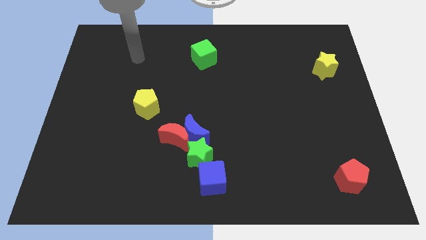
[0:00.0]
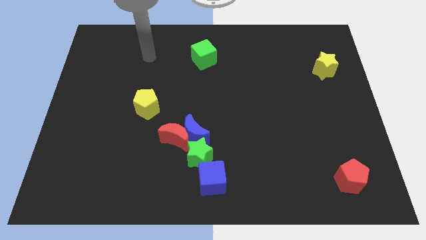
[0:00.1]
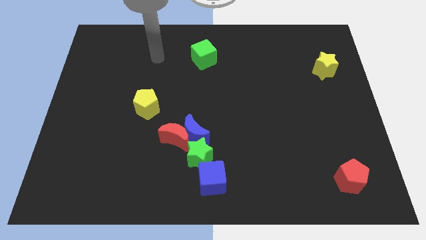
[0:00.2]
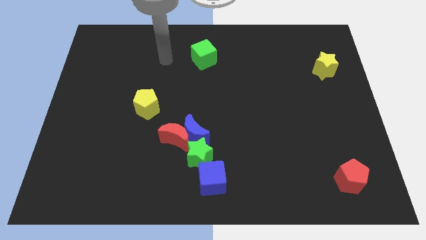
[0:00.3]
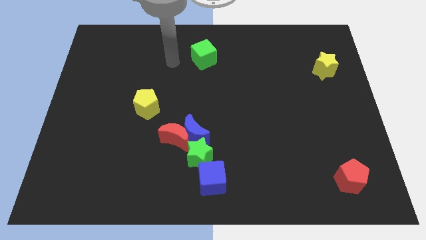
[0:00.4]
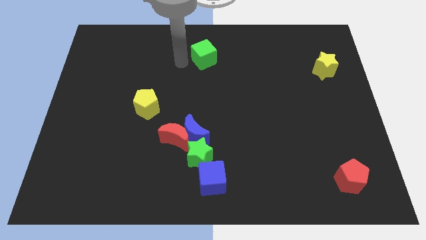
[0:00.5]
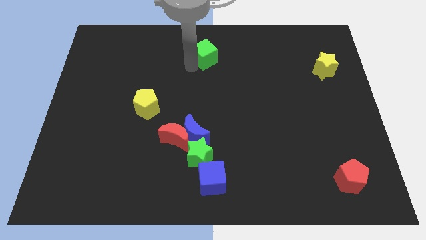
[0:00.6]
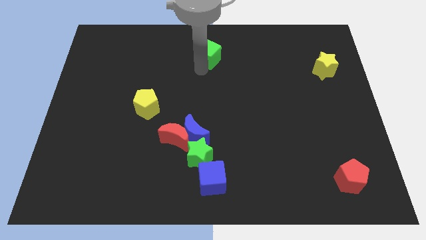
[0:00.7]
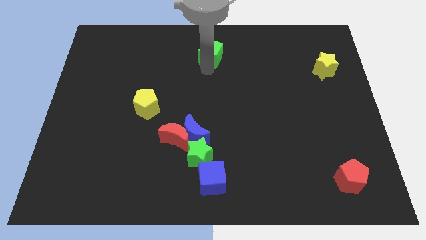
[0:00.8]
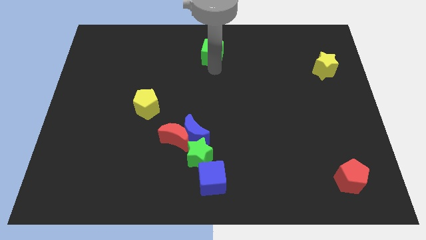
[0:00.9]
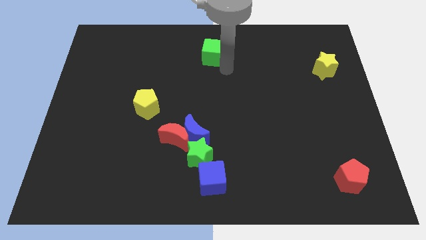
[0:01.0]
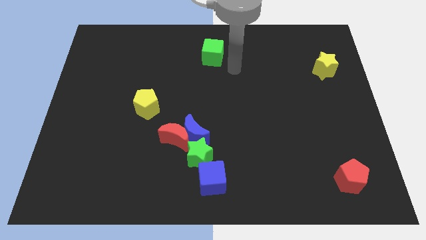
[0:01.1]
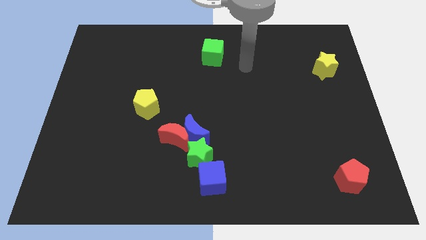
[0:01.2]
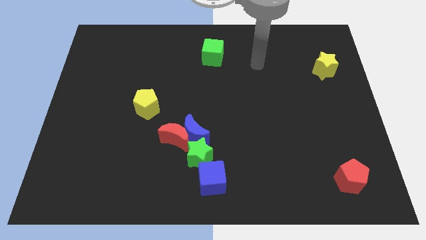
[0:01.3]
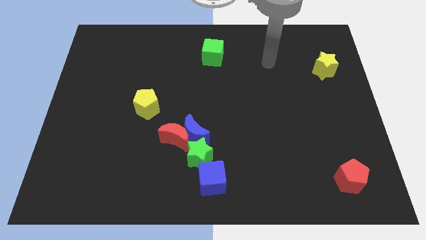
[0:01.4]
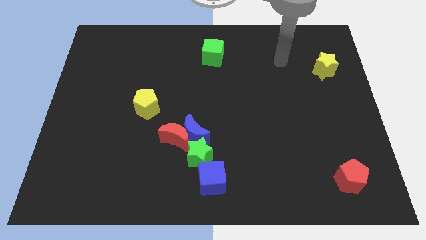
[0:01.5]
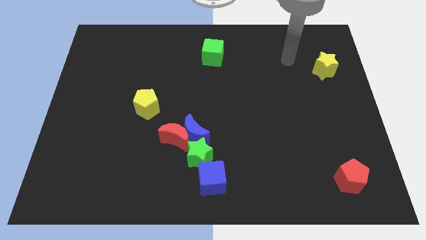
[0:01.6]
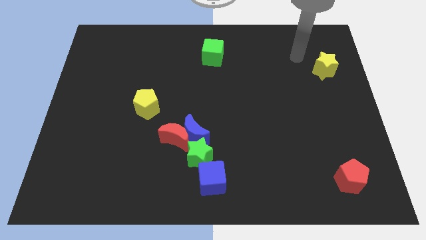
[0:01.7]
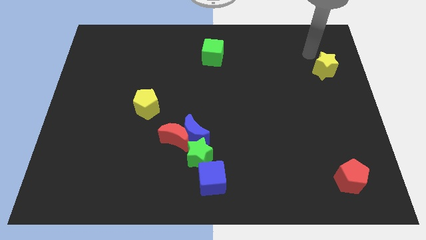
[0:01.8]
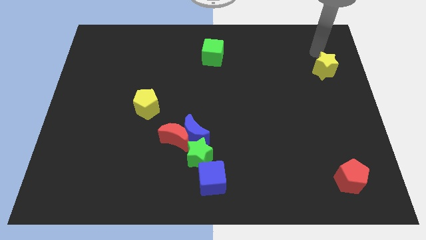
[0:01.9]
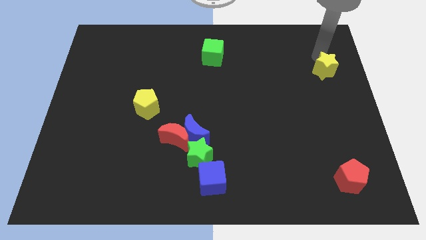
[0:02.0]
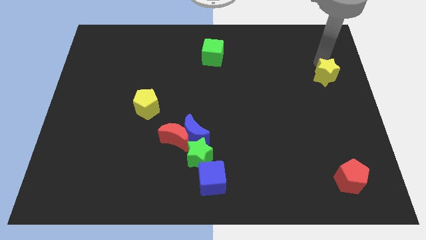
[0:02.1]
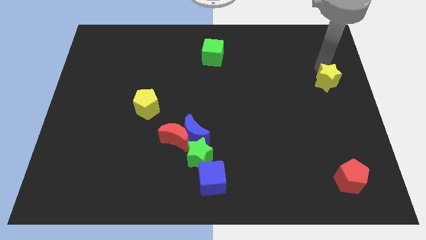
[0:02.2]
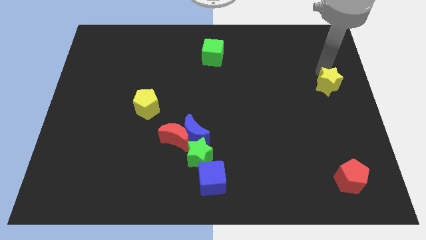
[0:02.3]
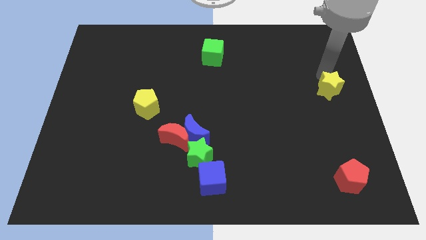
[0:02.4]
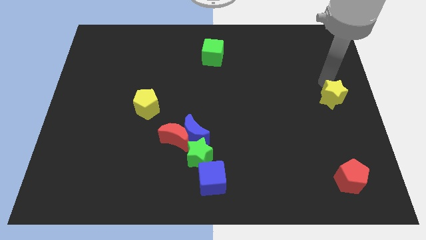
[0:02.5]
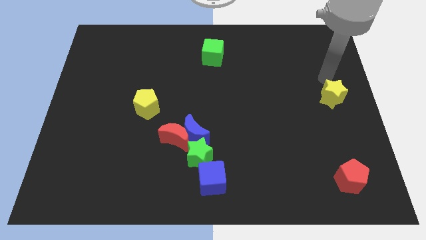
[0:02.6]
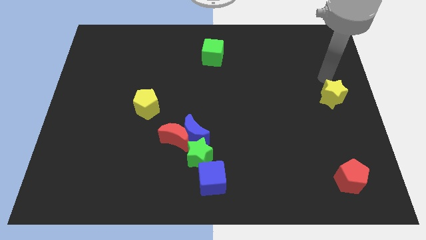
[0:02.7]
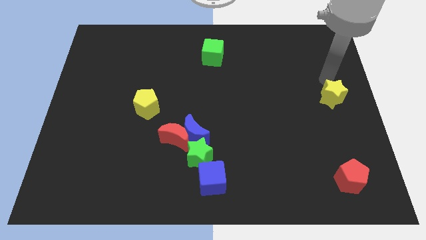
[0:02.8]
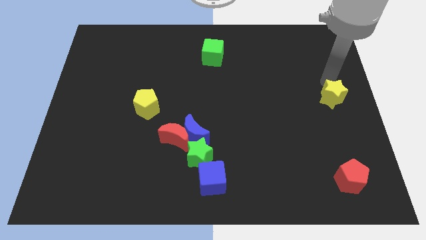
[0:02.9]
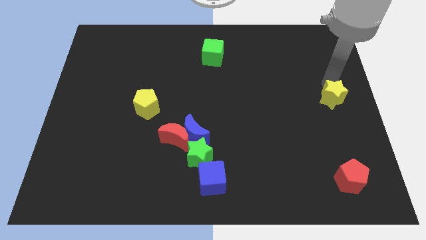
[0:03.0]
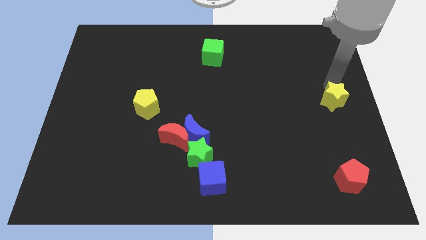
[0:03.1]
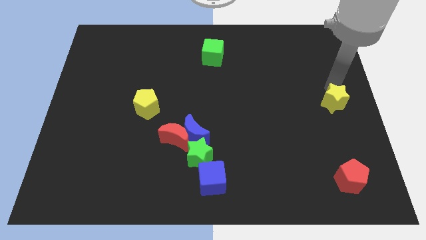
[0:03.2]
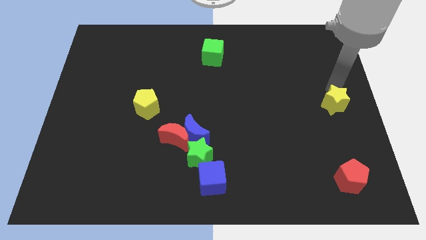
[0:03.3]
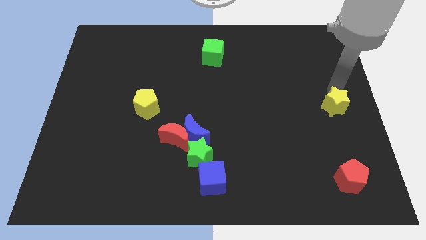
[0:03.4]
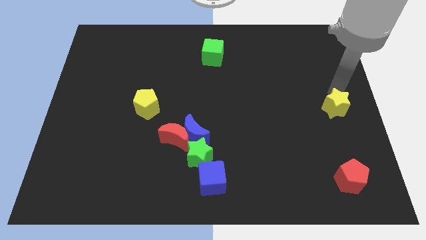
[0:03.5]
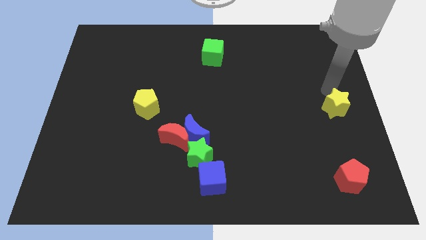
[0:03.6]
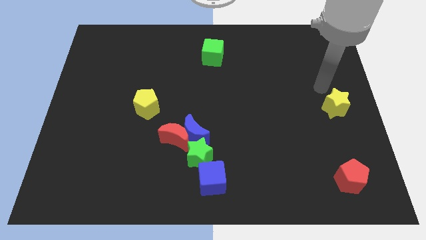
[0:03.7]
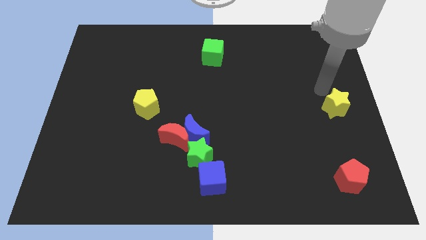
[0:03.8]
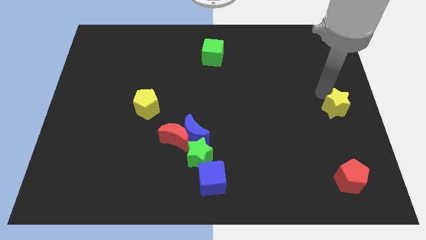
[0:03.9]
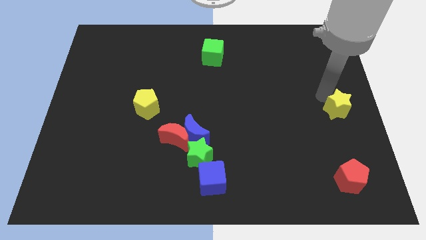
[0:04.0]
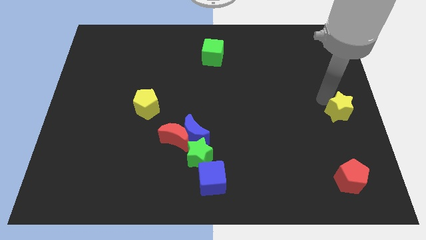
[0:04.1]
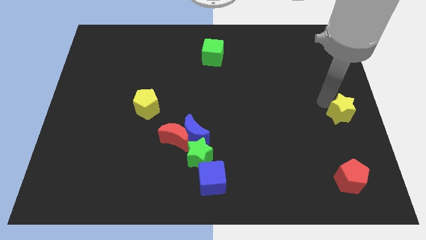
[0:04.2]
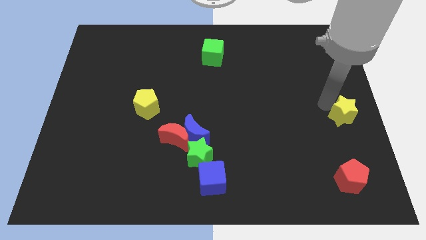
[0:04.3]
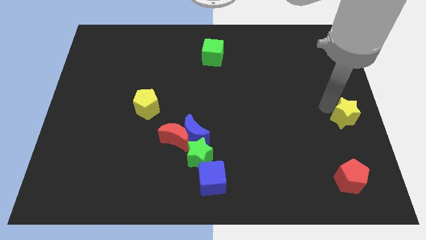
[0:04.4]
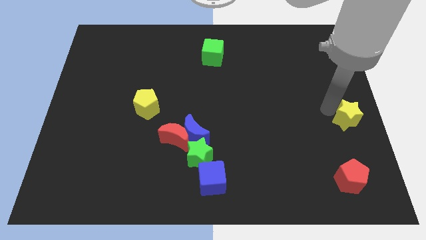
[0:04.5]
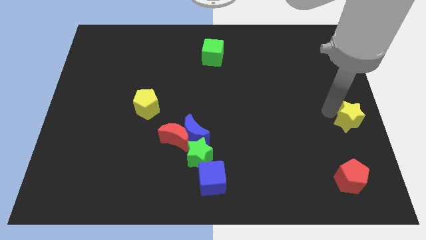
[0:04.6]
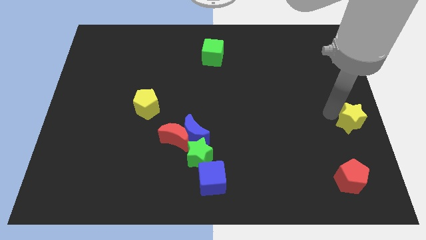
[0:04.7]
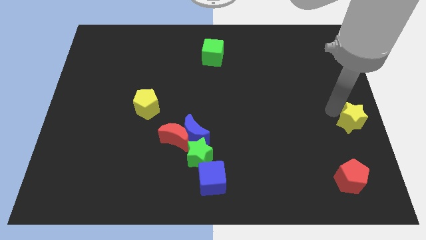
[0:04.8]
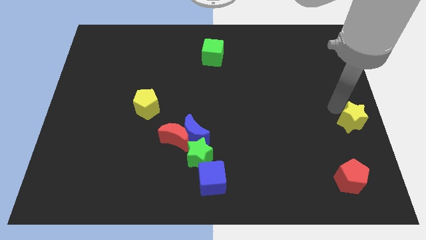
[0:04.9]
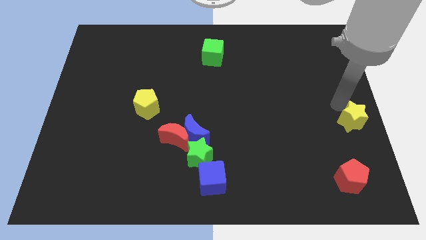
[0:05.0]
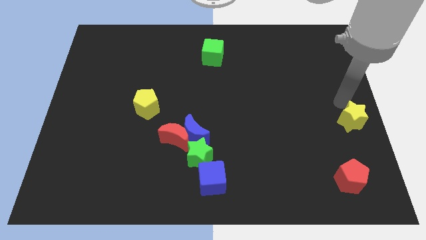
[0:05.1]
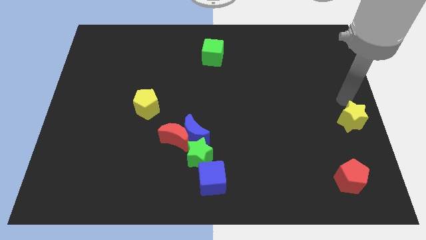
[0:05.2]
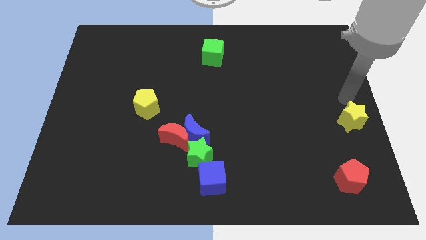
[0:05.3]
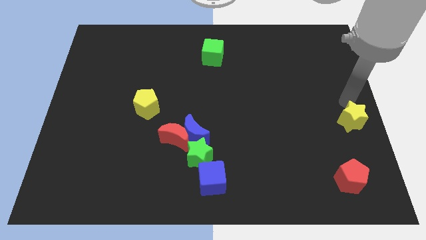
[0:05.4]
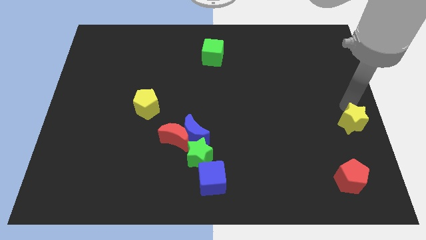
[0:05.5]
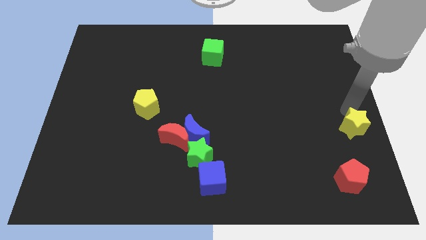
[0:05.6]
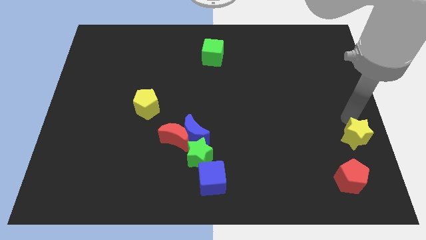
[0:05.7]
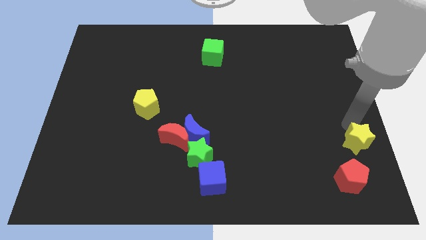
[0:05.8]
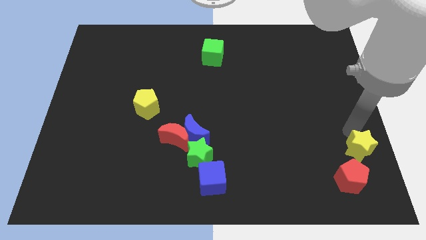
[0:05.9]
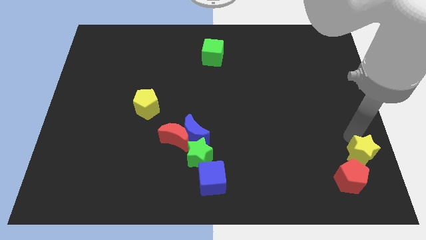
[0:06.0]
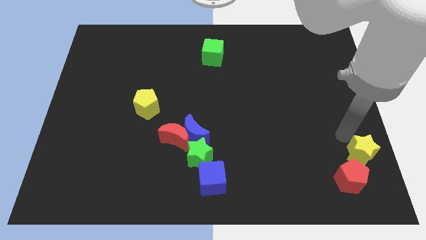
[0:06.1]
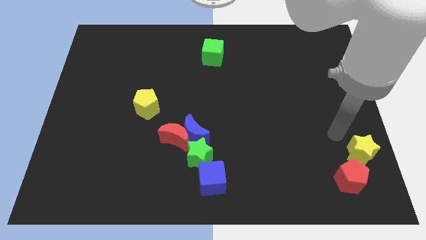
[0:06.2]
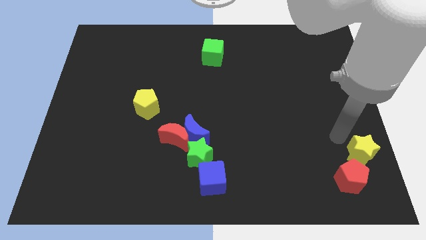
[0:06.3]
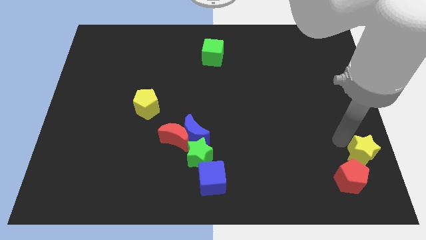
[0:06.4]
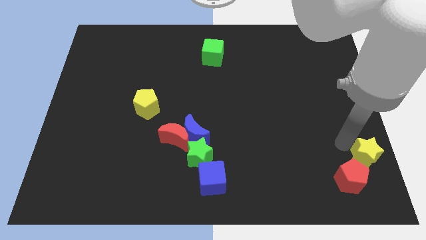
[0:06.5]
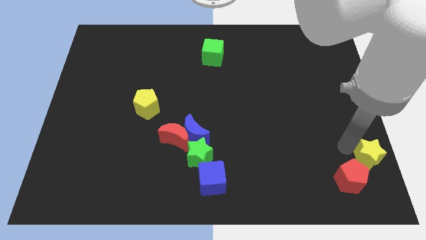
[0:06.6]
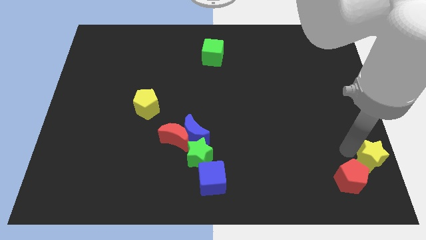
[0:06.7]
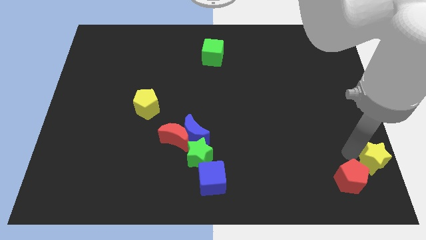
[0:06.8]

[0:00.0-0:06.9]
push the yellow star to the bottom right corner
